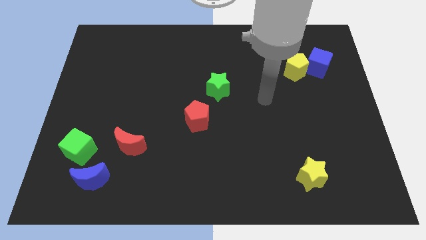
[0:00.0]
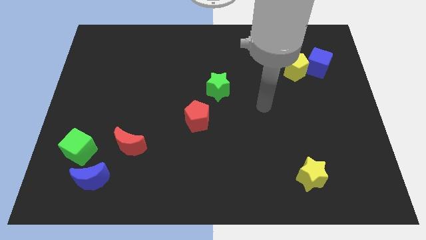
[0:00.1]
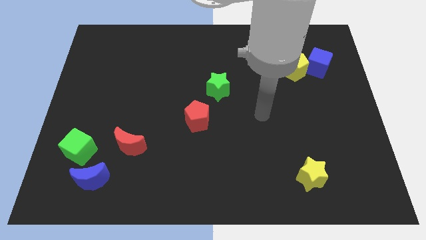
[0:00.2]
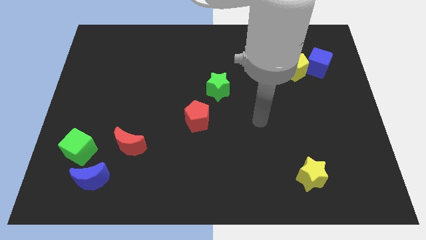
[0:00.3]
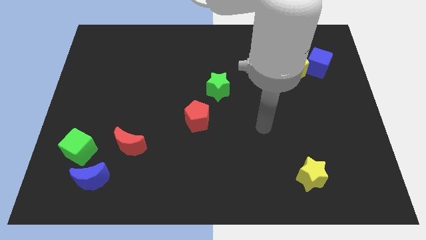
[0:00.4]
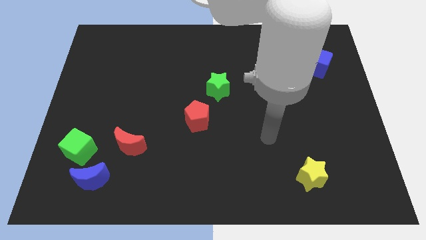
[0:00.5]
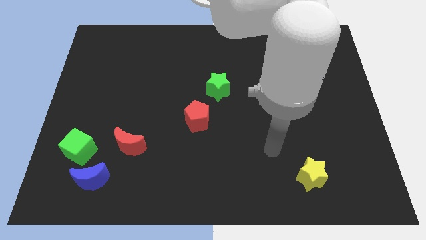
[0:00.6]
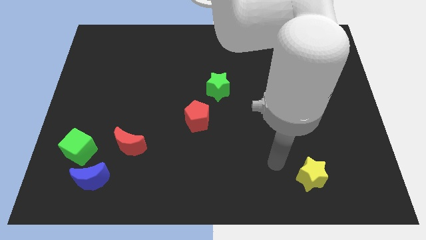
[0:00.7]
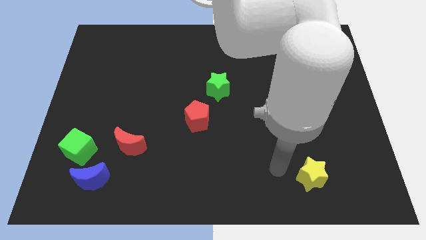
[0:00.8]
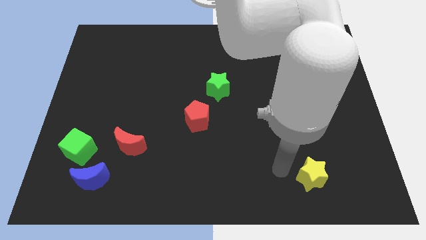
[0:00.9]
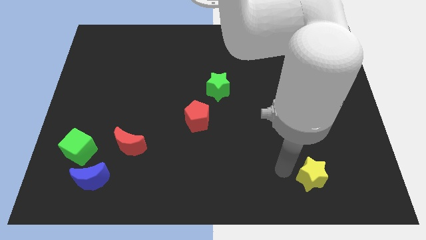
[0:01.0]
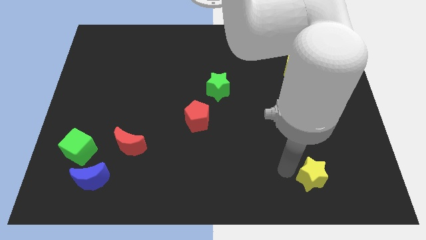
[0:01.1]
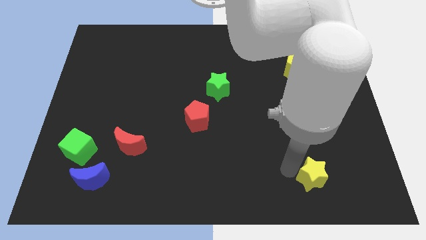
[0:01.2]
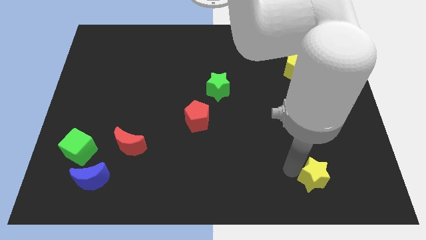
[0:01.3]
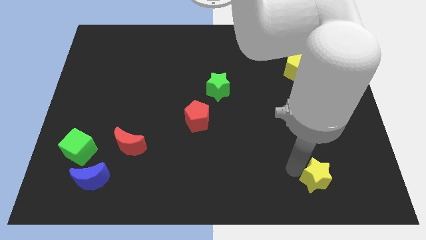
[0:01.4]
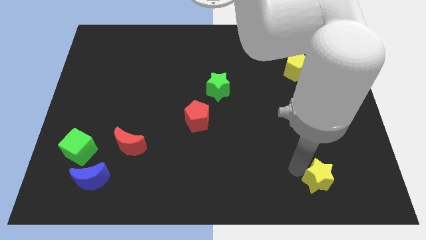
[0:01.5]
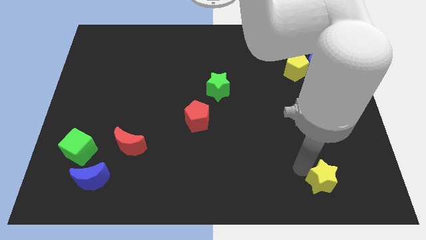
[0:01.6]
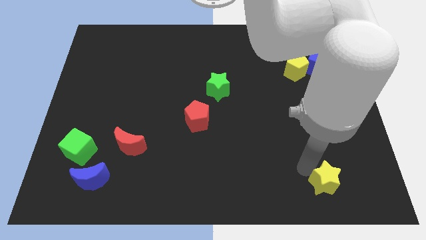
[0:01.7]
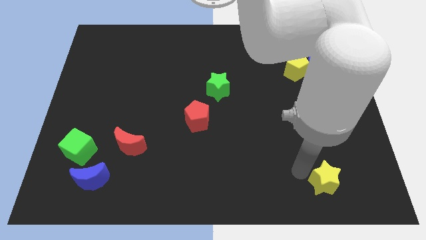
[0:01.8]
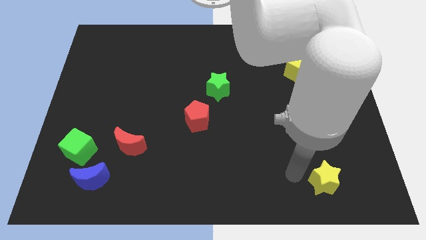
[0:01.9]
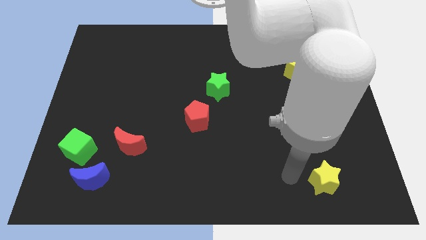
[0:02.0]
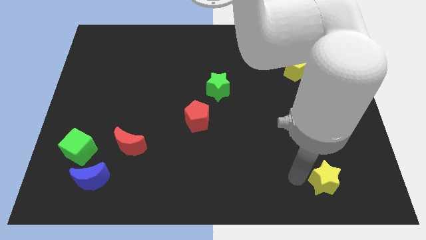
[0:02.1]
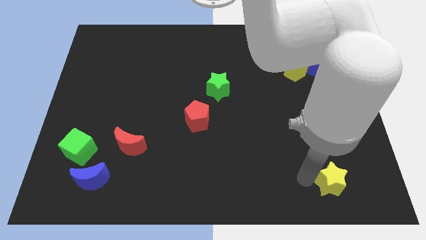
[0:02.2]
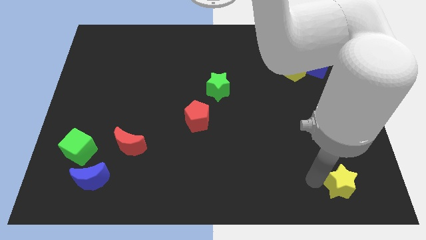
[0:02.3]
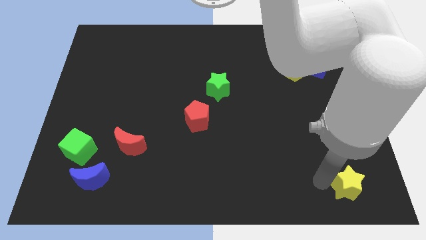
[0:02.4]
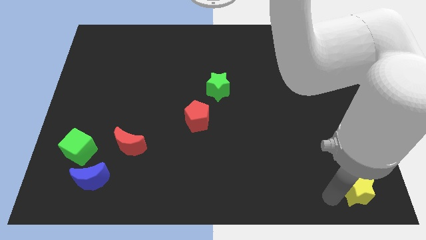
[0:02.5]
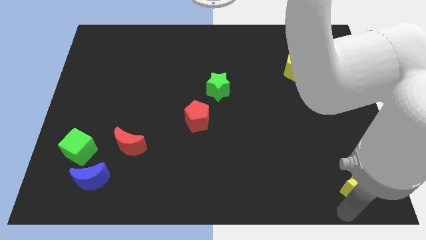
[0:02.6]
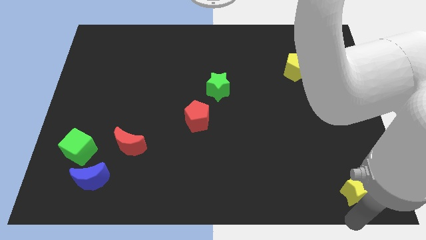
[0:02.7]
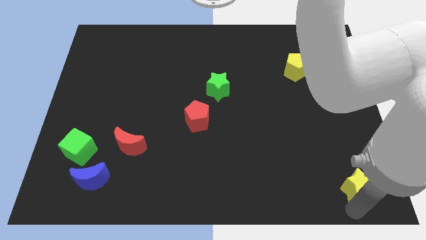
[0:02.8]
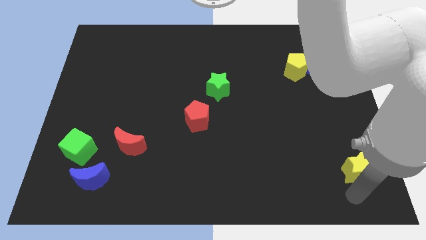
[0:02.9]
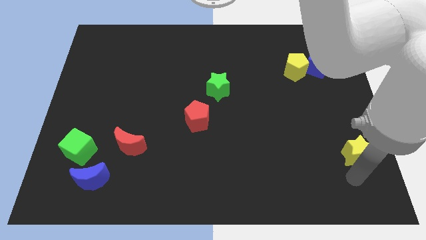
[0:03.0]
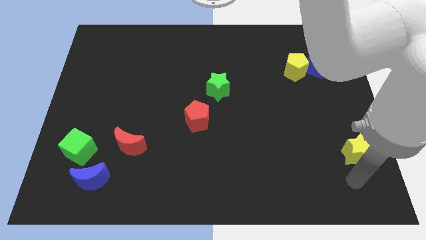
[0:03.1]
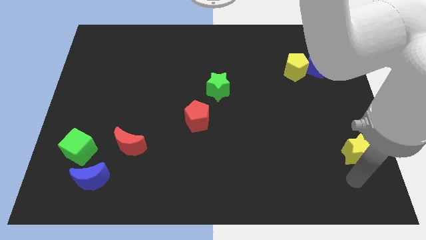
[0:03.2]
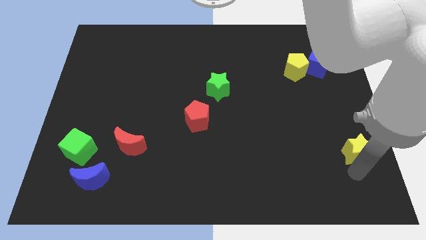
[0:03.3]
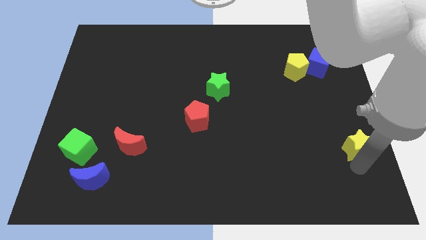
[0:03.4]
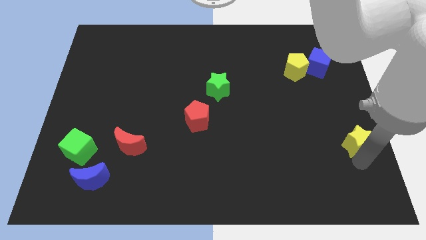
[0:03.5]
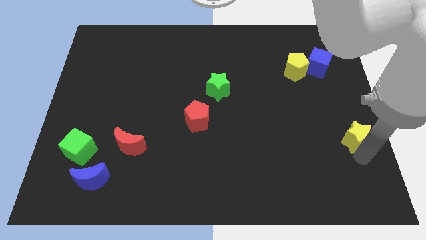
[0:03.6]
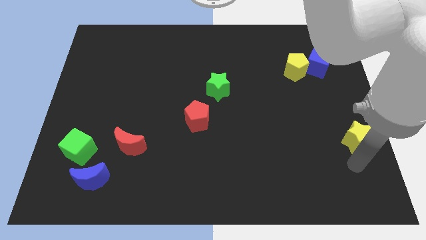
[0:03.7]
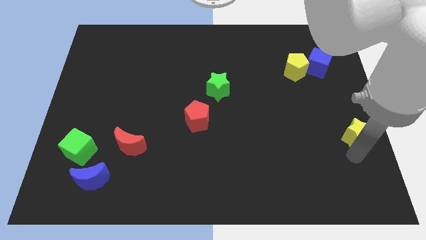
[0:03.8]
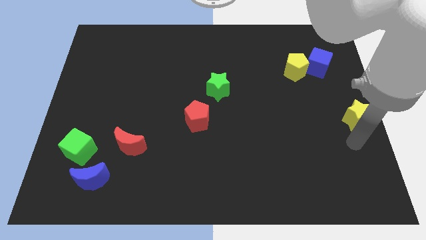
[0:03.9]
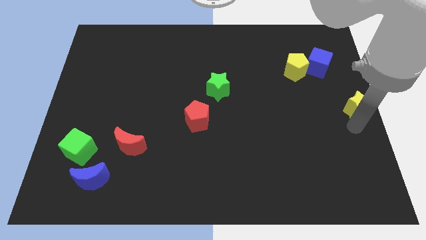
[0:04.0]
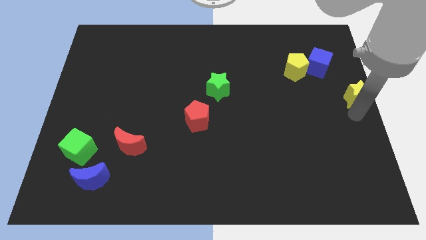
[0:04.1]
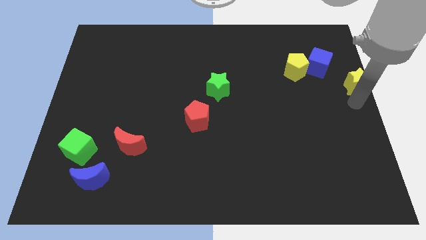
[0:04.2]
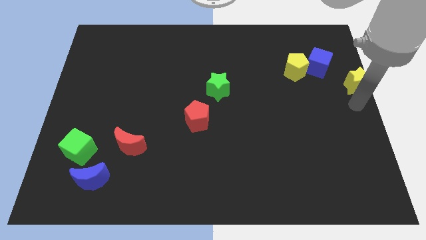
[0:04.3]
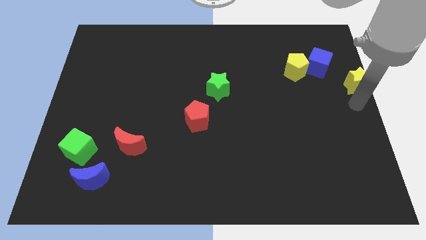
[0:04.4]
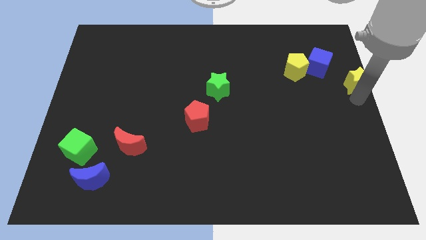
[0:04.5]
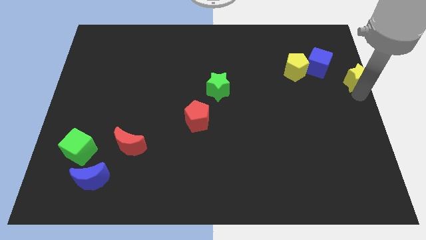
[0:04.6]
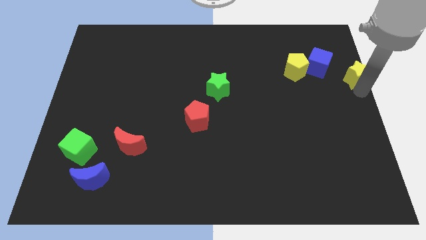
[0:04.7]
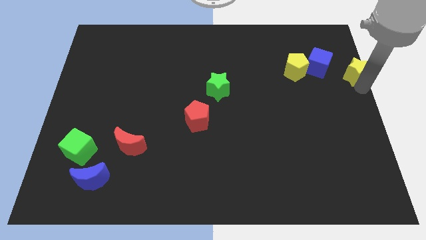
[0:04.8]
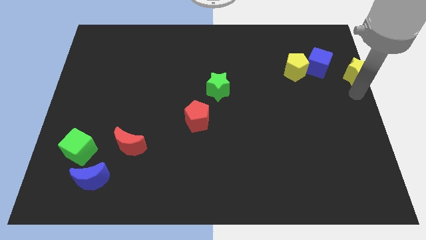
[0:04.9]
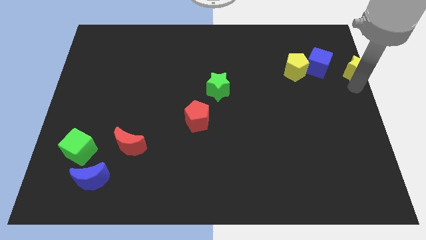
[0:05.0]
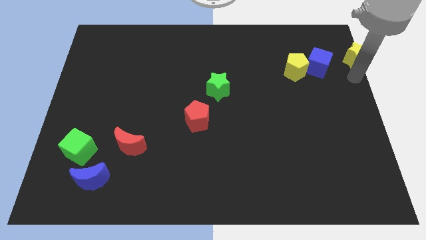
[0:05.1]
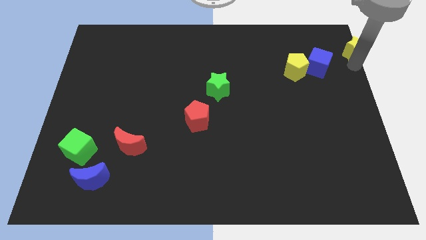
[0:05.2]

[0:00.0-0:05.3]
push the yellow star to the top right corner

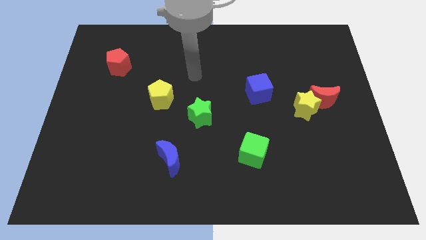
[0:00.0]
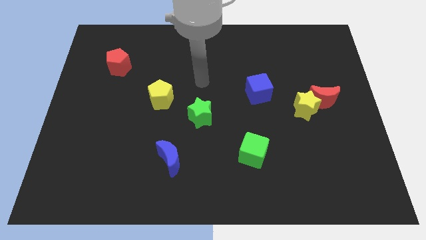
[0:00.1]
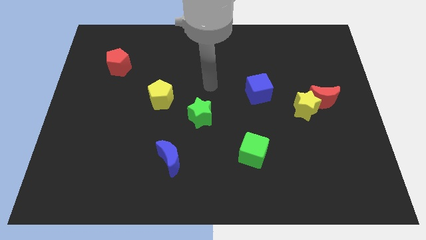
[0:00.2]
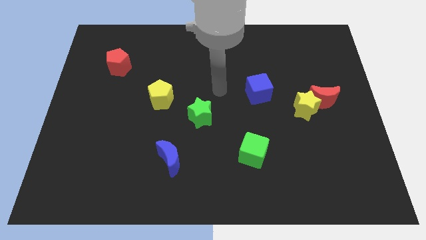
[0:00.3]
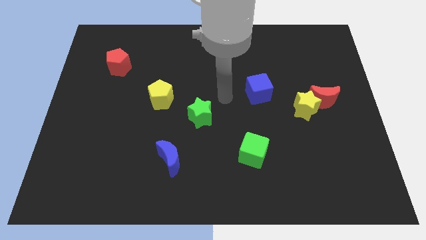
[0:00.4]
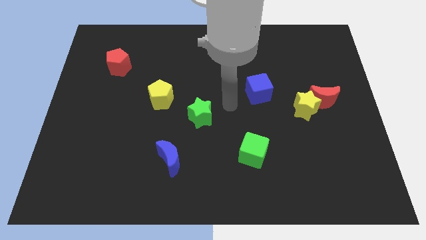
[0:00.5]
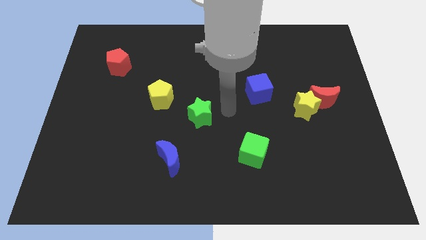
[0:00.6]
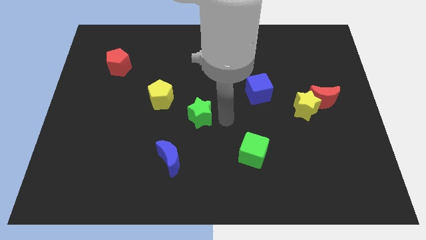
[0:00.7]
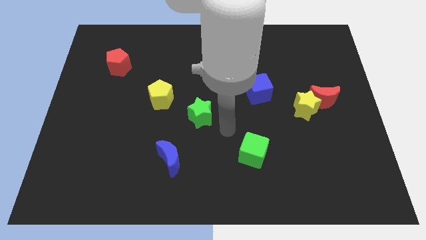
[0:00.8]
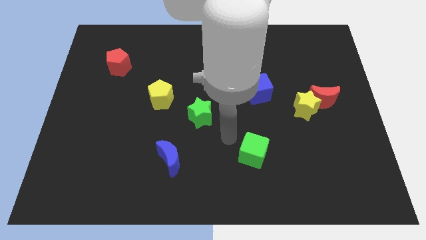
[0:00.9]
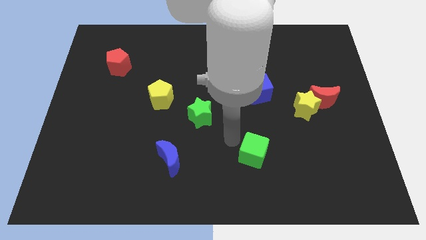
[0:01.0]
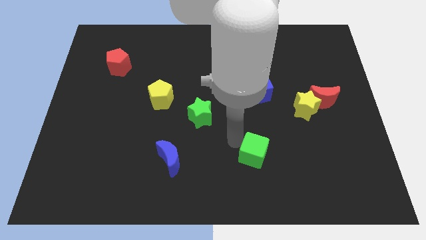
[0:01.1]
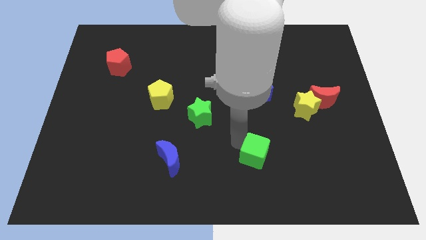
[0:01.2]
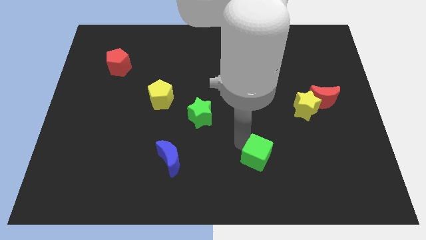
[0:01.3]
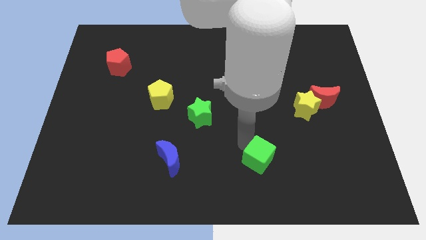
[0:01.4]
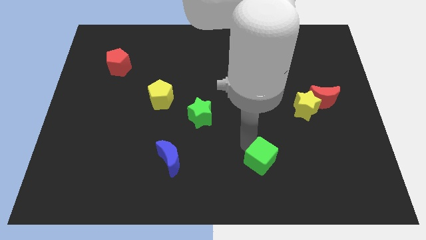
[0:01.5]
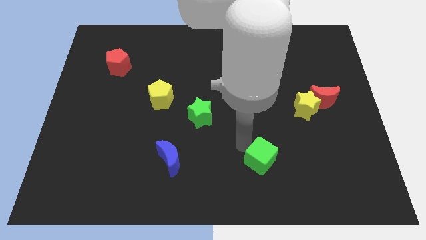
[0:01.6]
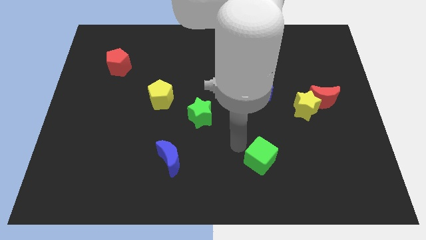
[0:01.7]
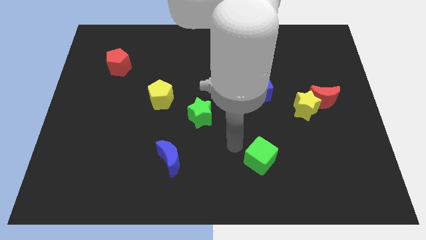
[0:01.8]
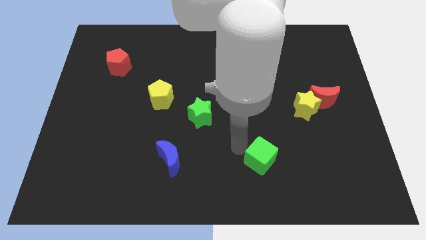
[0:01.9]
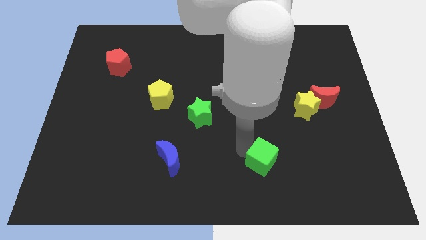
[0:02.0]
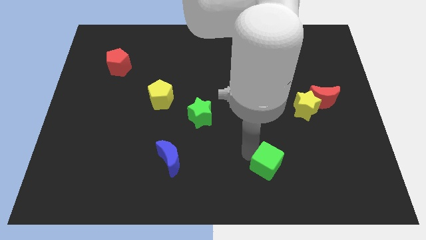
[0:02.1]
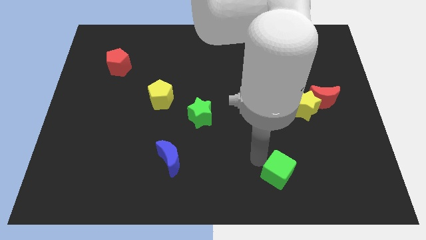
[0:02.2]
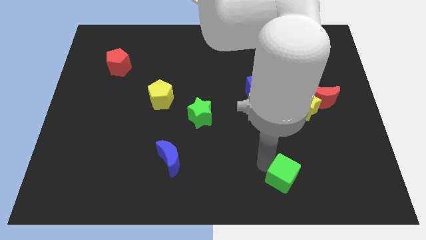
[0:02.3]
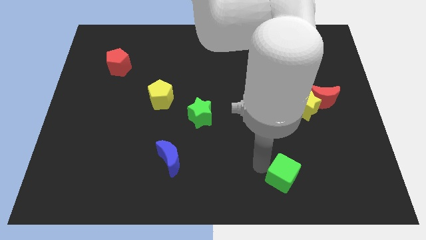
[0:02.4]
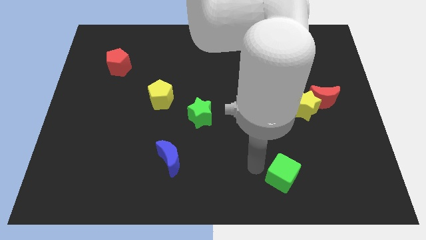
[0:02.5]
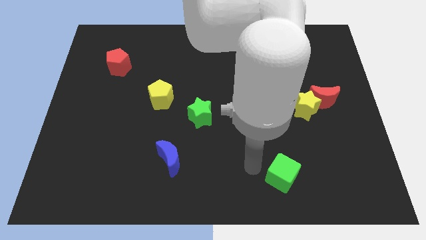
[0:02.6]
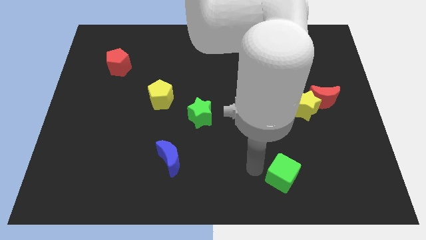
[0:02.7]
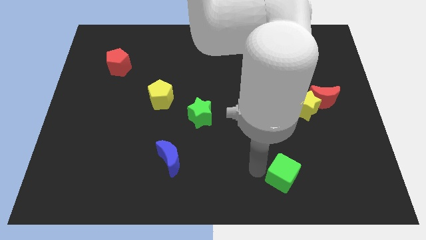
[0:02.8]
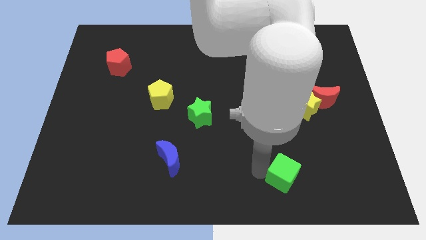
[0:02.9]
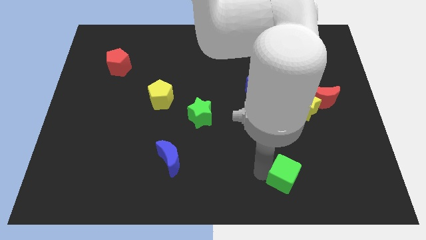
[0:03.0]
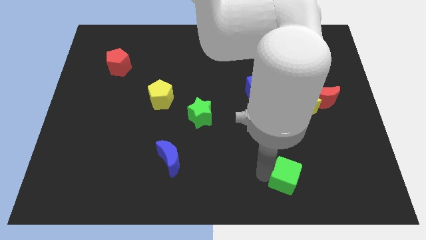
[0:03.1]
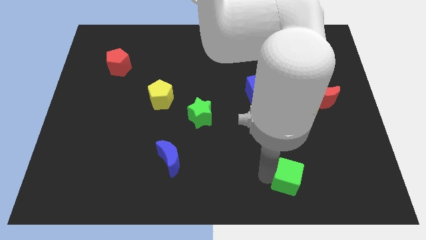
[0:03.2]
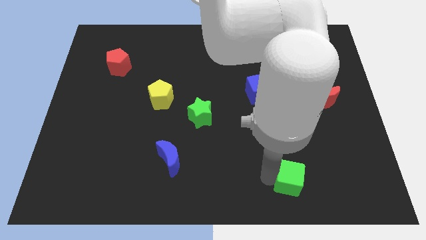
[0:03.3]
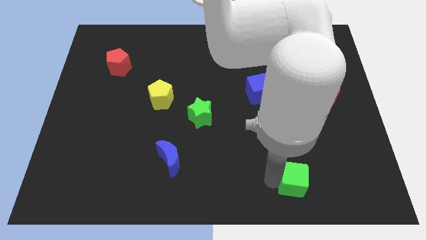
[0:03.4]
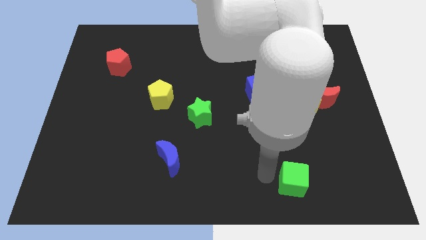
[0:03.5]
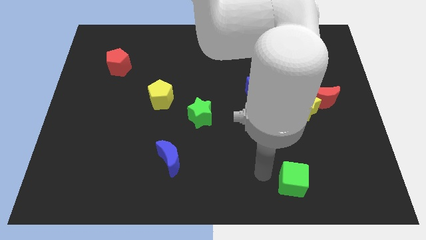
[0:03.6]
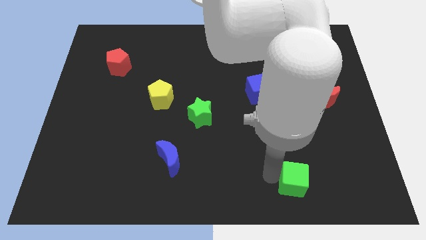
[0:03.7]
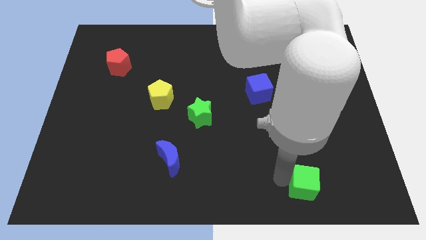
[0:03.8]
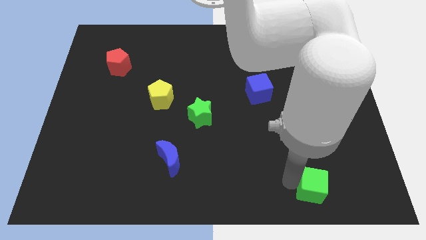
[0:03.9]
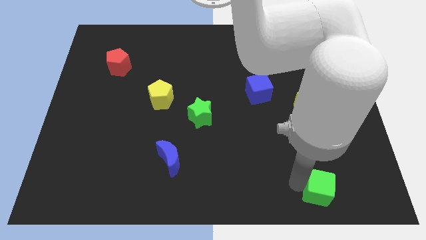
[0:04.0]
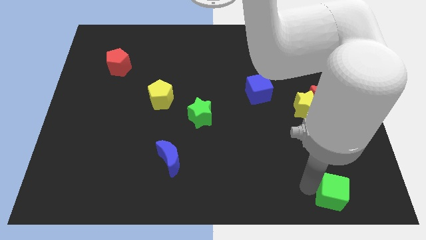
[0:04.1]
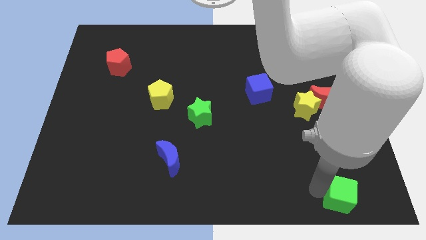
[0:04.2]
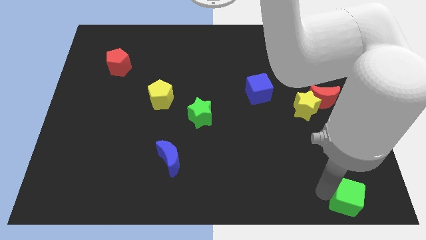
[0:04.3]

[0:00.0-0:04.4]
slide the green cube to the bottom right corner
